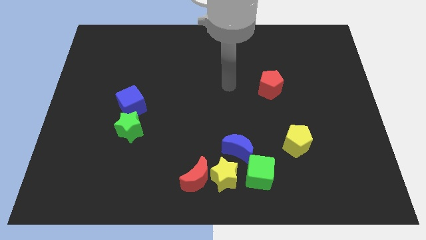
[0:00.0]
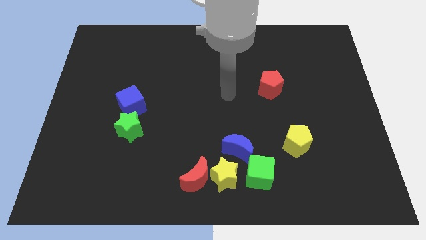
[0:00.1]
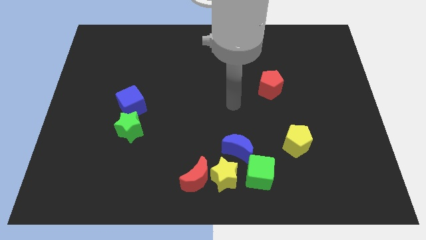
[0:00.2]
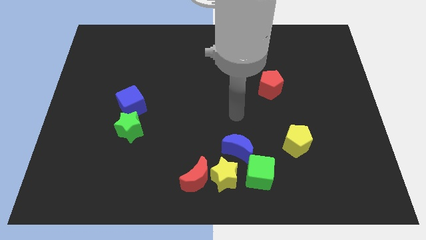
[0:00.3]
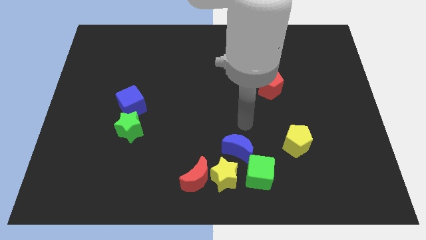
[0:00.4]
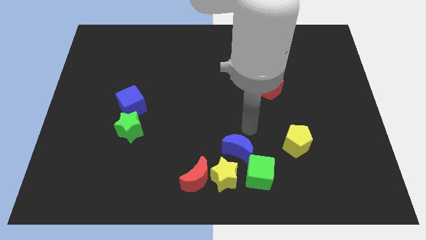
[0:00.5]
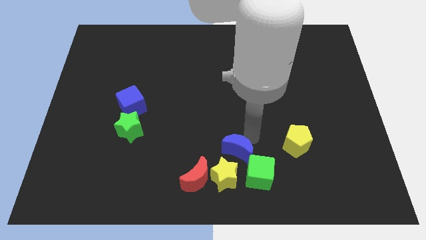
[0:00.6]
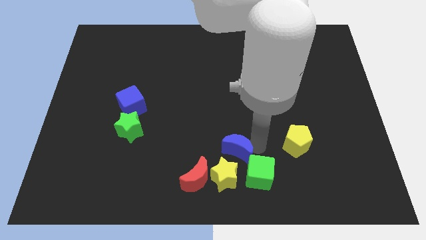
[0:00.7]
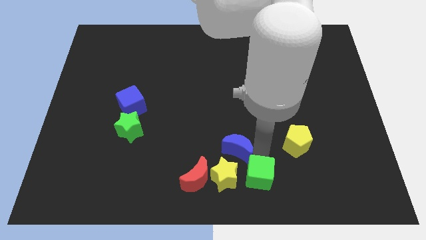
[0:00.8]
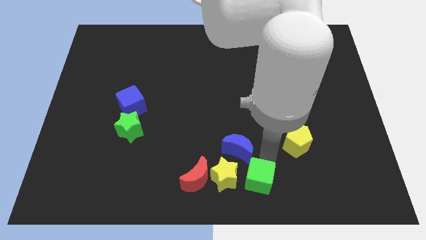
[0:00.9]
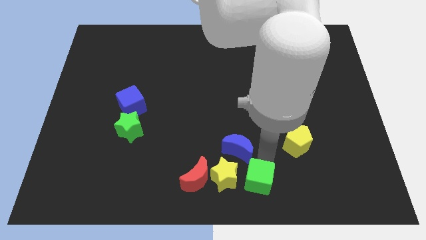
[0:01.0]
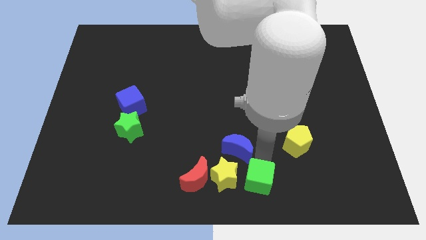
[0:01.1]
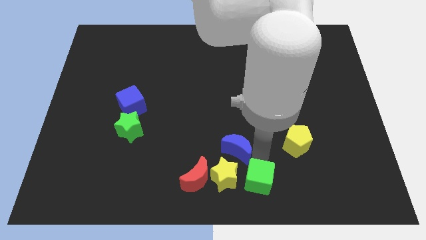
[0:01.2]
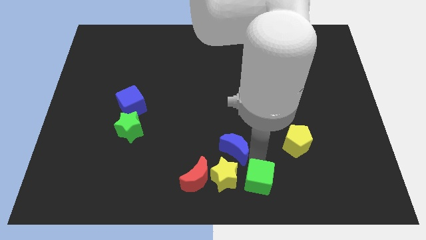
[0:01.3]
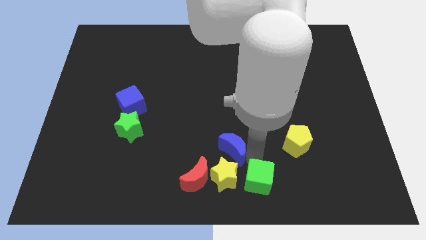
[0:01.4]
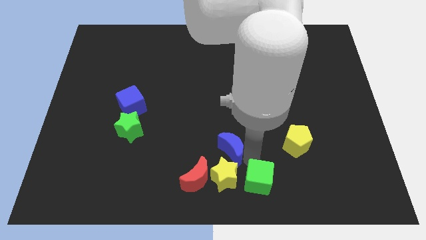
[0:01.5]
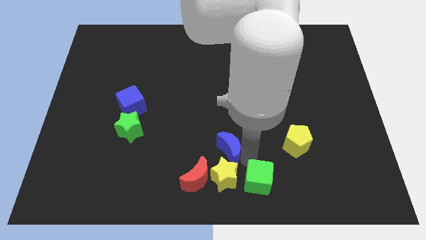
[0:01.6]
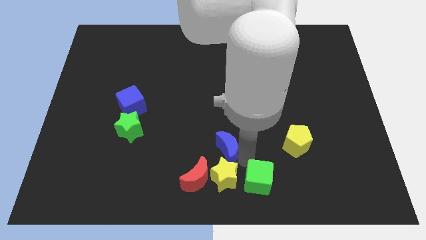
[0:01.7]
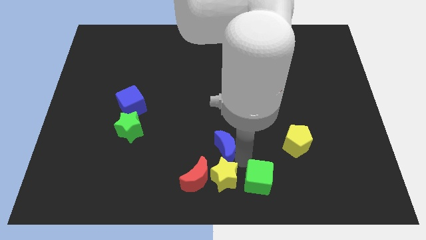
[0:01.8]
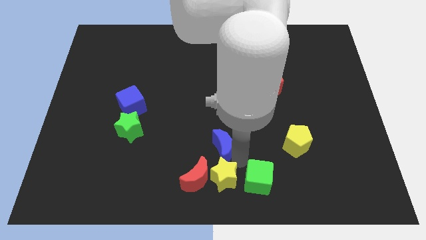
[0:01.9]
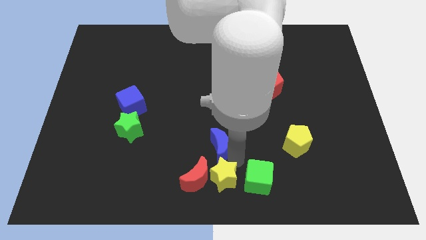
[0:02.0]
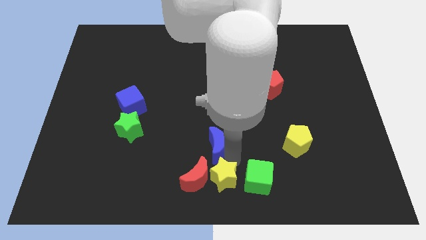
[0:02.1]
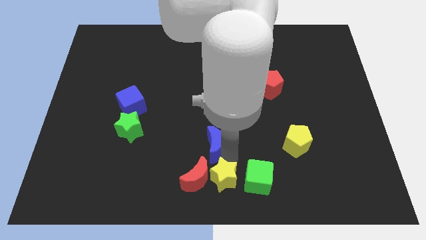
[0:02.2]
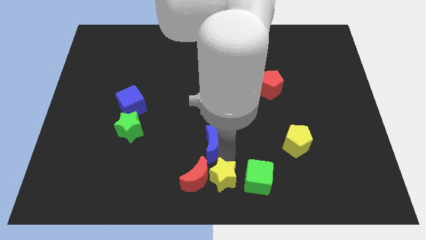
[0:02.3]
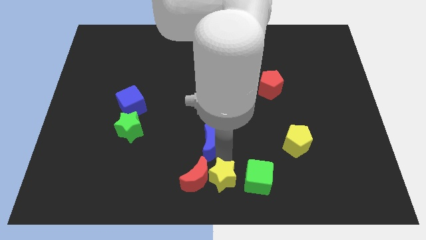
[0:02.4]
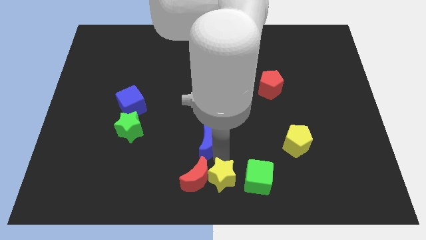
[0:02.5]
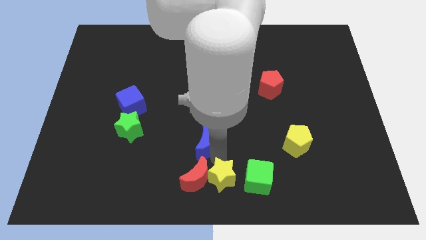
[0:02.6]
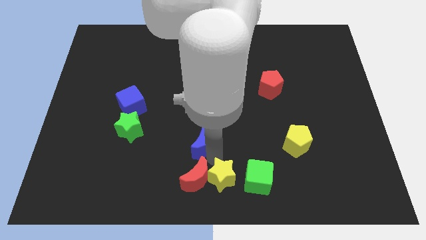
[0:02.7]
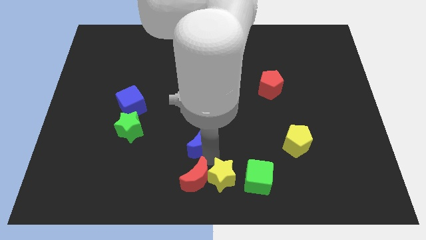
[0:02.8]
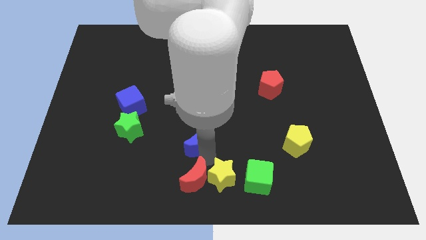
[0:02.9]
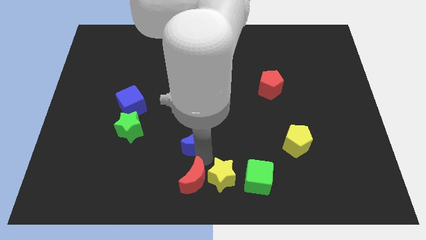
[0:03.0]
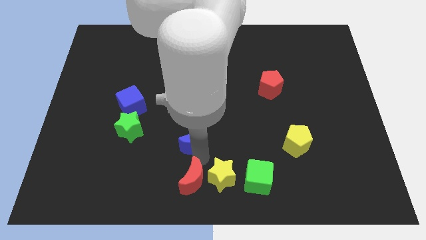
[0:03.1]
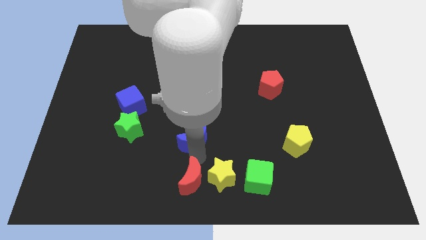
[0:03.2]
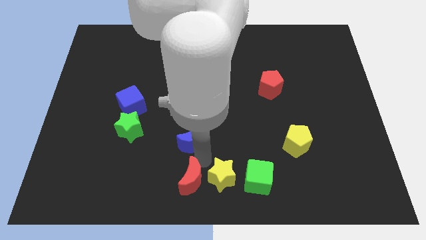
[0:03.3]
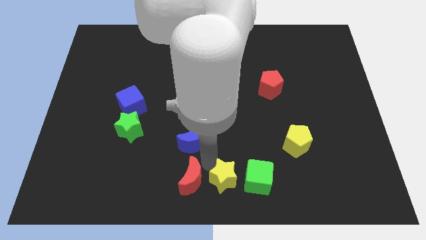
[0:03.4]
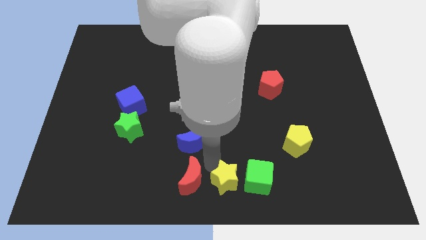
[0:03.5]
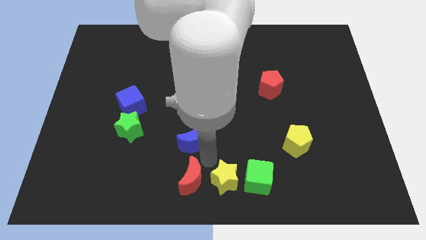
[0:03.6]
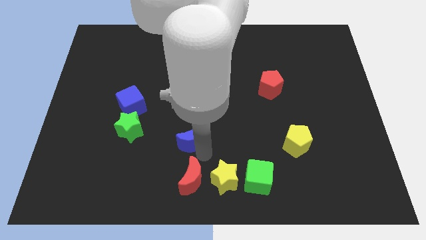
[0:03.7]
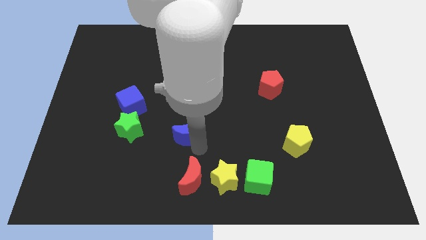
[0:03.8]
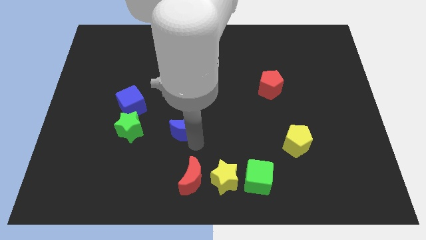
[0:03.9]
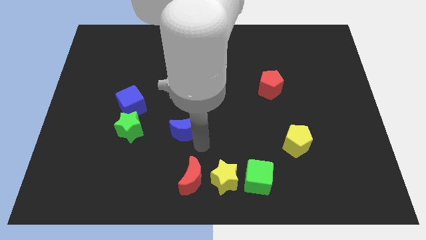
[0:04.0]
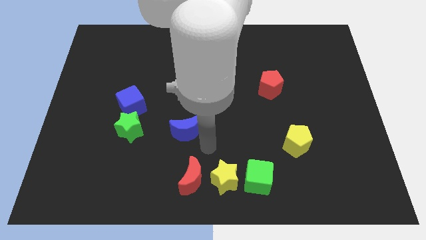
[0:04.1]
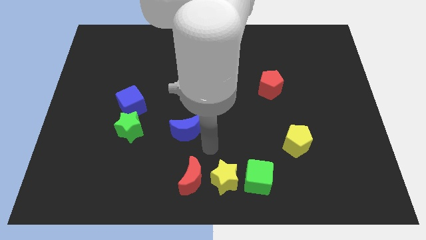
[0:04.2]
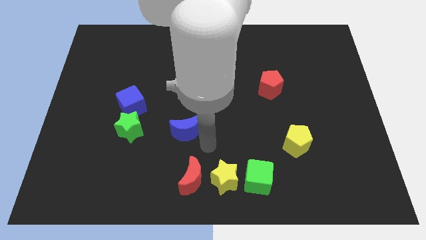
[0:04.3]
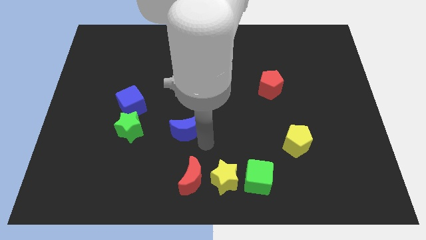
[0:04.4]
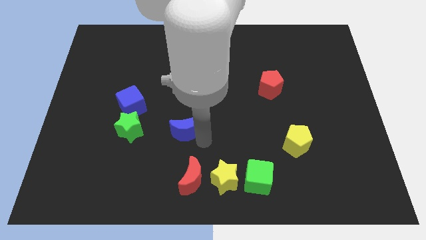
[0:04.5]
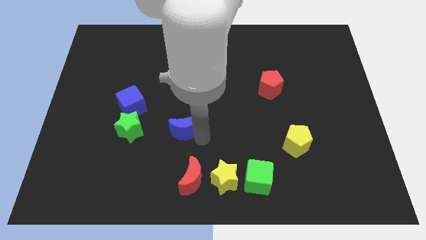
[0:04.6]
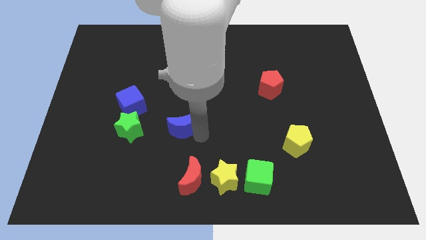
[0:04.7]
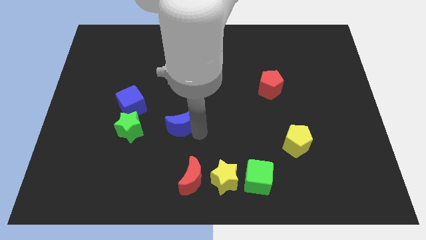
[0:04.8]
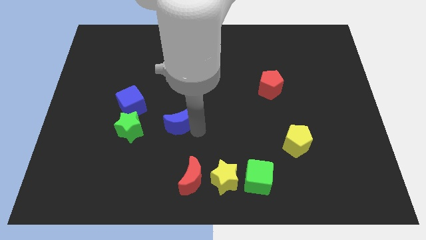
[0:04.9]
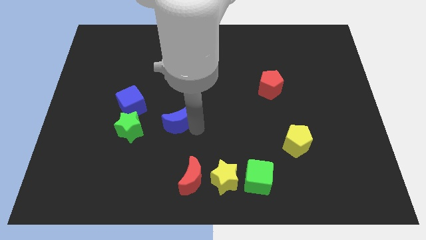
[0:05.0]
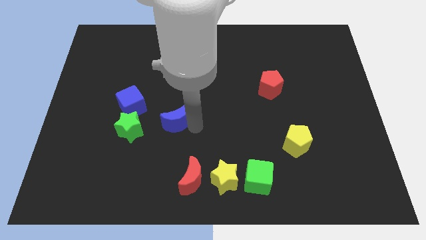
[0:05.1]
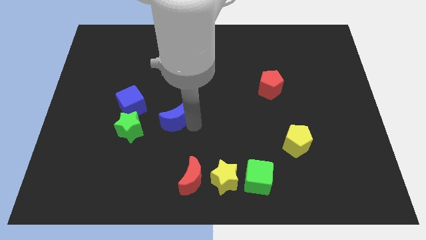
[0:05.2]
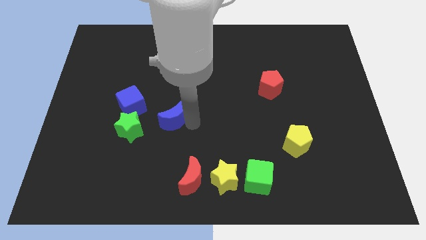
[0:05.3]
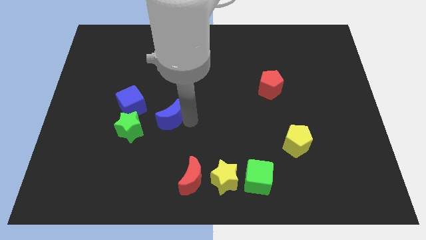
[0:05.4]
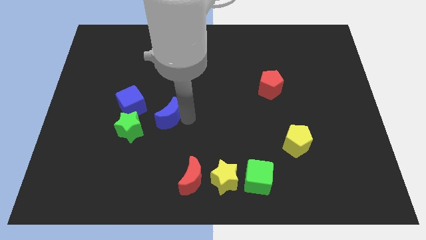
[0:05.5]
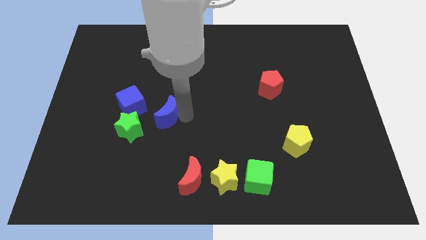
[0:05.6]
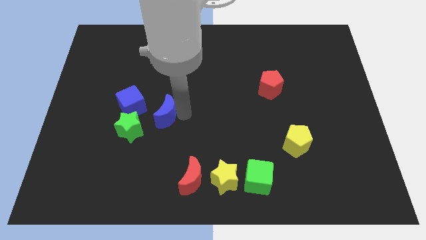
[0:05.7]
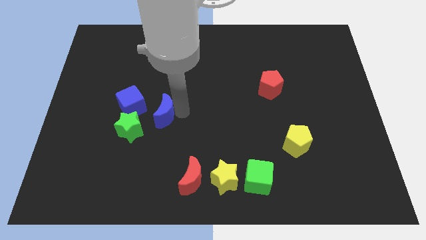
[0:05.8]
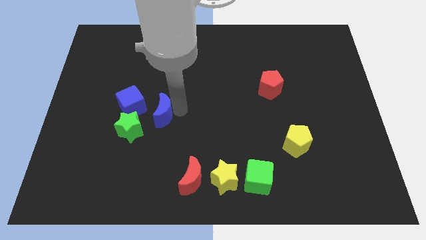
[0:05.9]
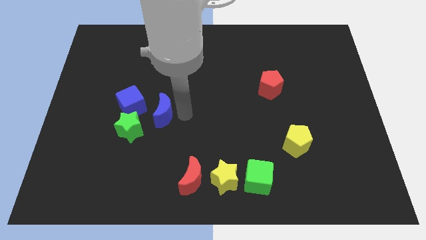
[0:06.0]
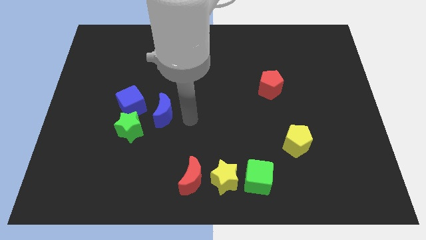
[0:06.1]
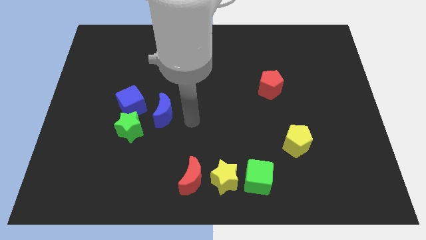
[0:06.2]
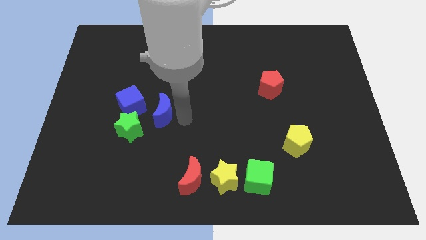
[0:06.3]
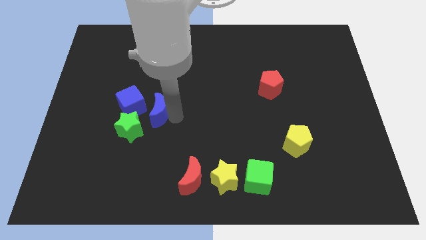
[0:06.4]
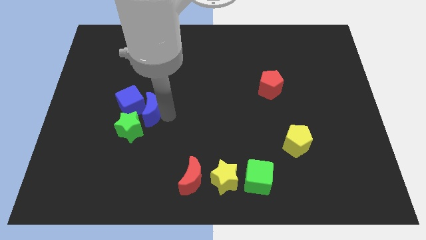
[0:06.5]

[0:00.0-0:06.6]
put the blue moon next to the blue cube

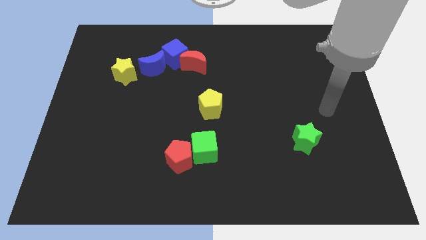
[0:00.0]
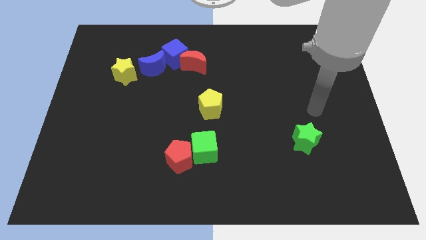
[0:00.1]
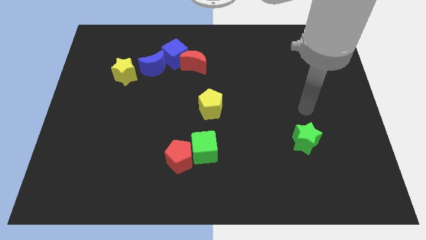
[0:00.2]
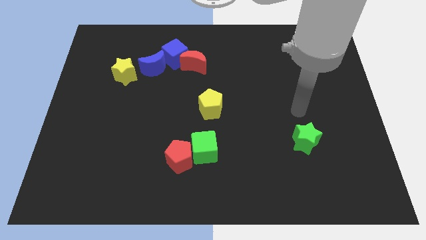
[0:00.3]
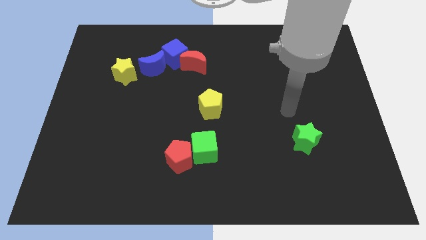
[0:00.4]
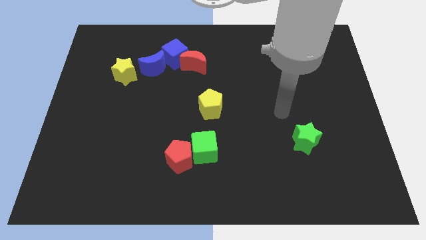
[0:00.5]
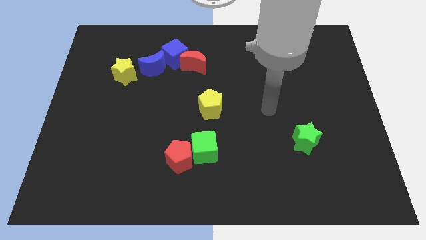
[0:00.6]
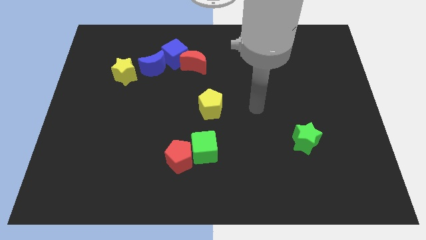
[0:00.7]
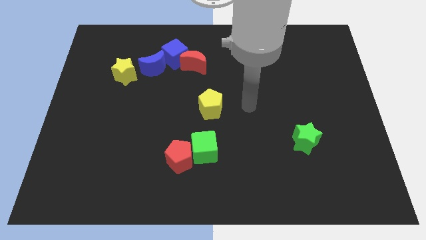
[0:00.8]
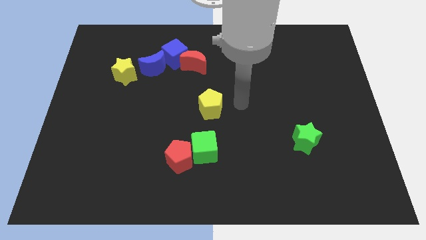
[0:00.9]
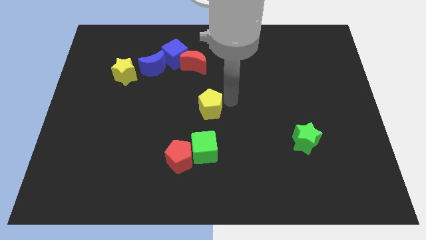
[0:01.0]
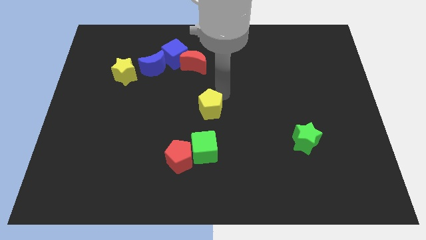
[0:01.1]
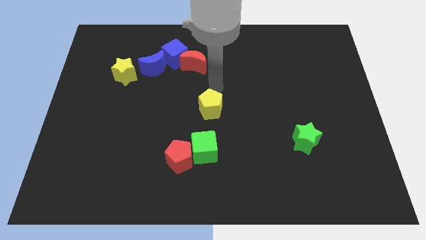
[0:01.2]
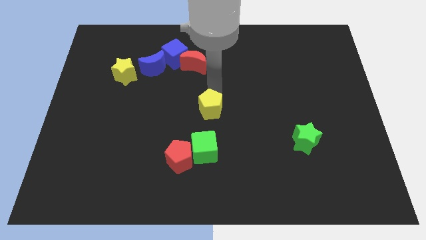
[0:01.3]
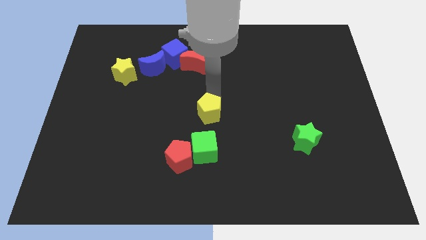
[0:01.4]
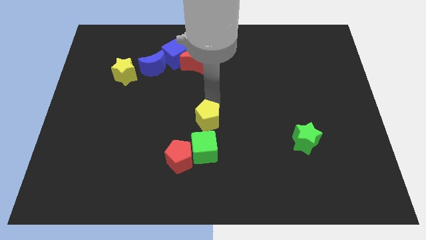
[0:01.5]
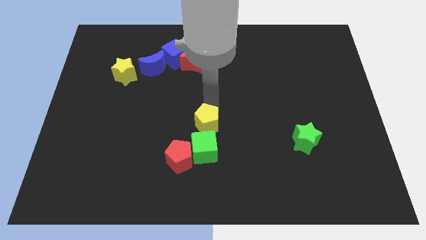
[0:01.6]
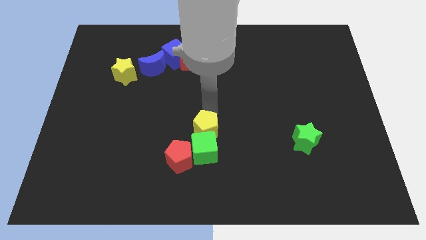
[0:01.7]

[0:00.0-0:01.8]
push the yellow pentagon close to the green cube
